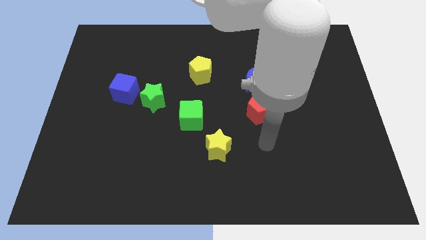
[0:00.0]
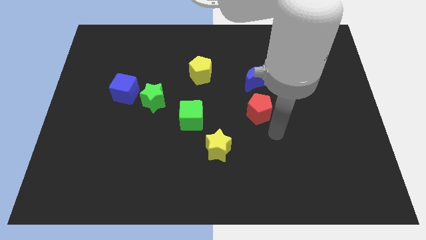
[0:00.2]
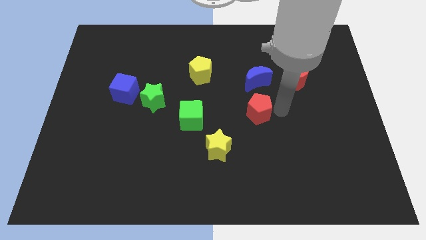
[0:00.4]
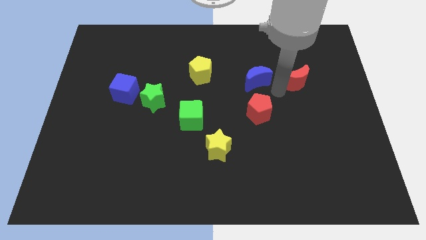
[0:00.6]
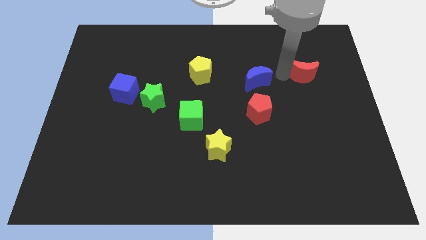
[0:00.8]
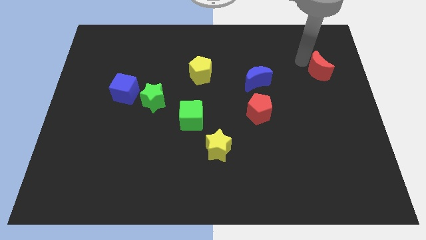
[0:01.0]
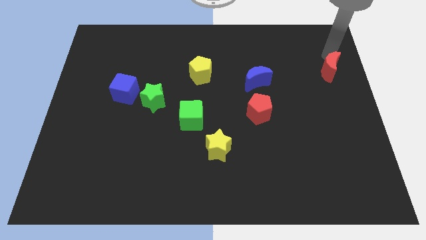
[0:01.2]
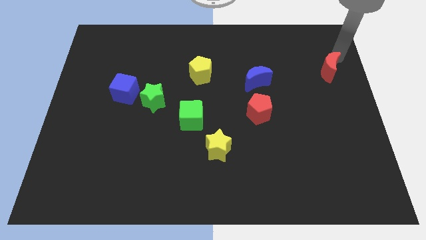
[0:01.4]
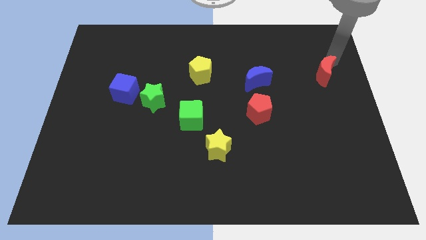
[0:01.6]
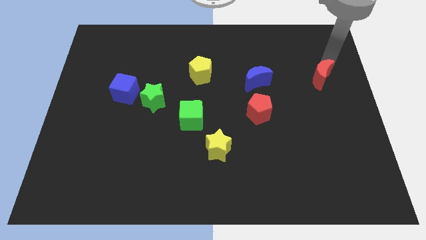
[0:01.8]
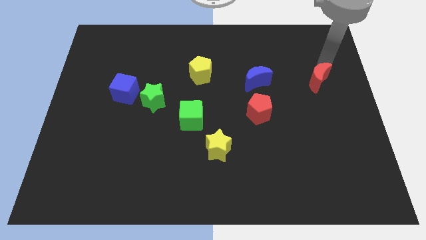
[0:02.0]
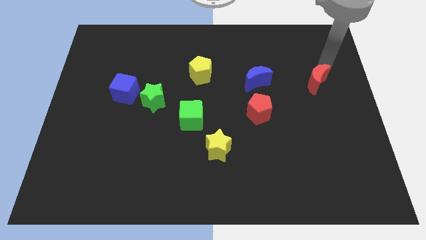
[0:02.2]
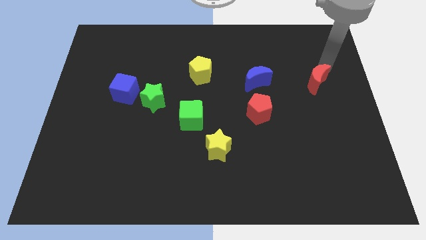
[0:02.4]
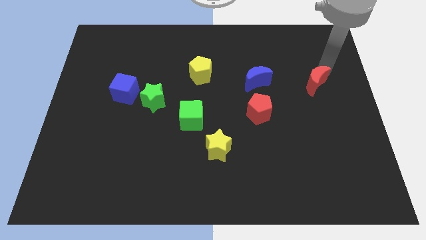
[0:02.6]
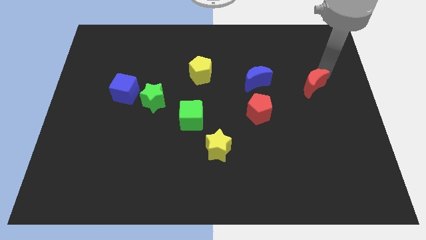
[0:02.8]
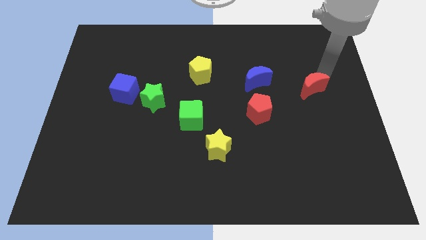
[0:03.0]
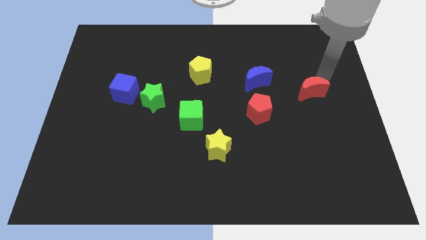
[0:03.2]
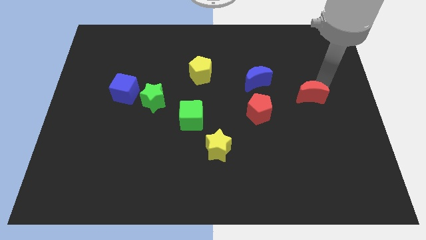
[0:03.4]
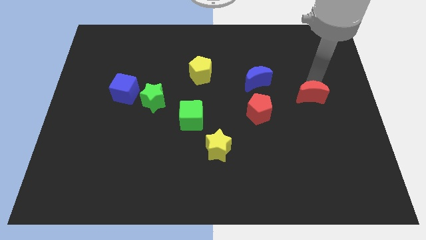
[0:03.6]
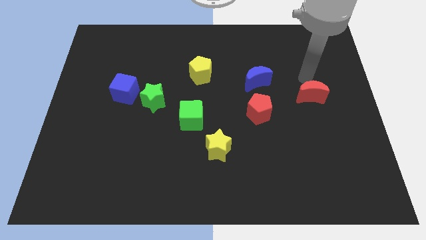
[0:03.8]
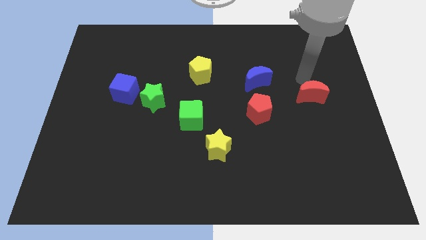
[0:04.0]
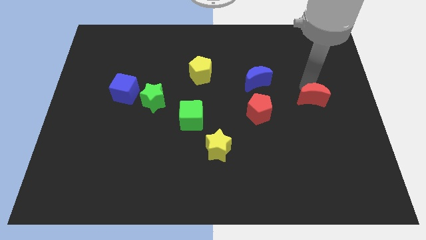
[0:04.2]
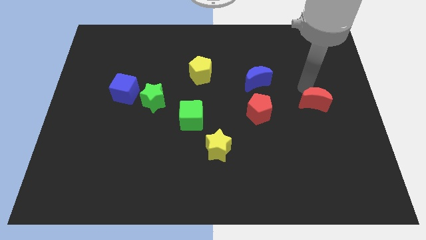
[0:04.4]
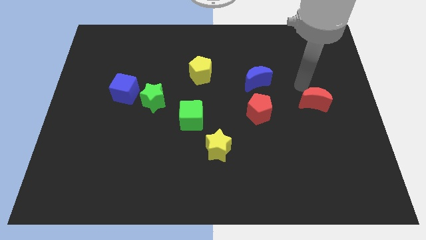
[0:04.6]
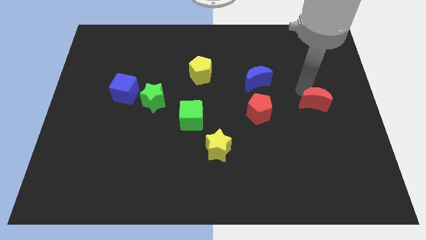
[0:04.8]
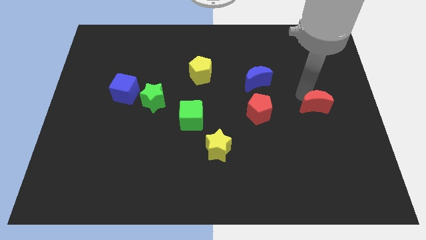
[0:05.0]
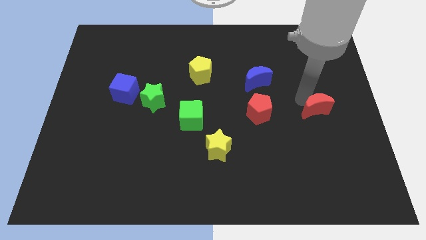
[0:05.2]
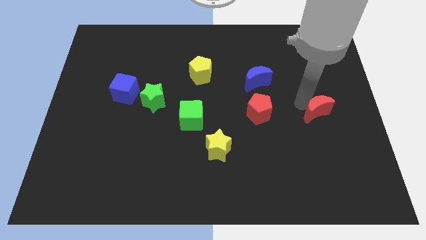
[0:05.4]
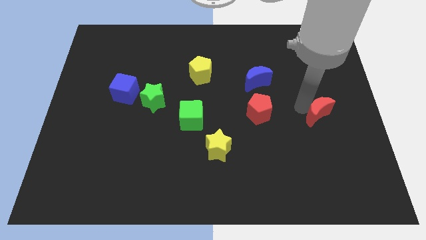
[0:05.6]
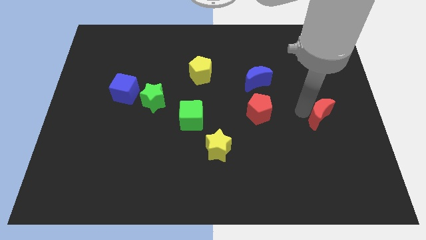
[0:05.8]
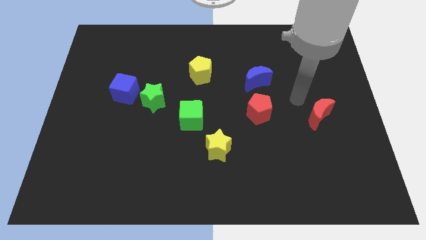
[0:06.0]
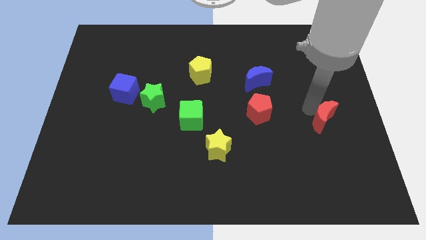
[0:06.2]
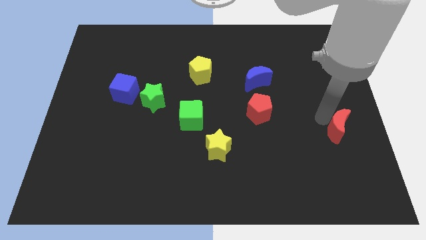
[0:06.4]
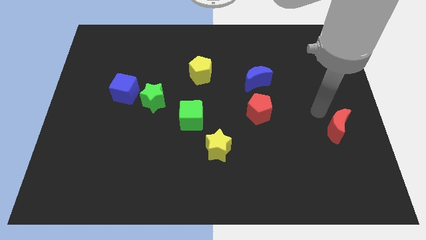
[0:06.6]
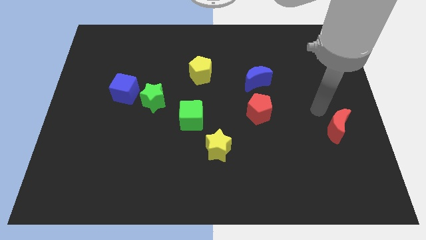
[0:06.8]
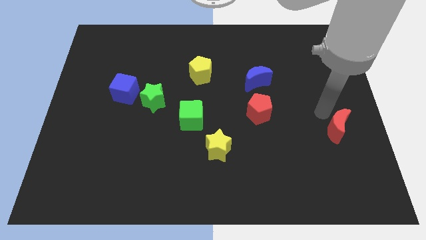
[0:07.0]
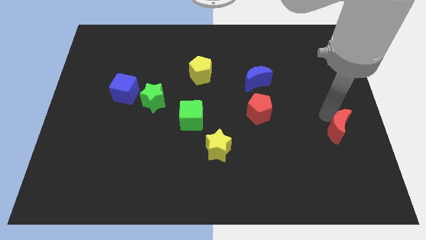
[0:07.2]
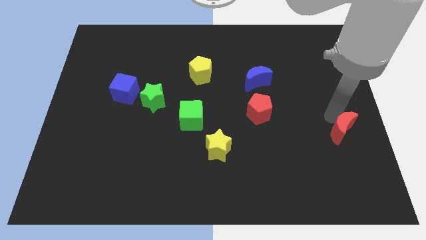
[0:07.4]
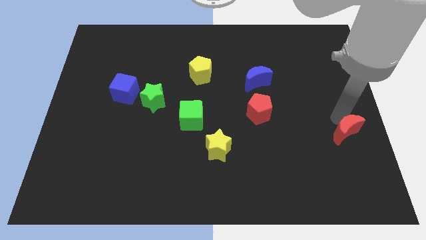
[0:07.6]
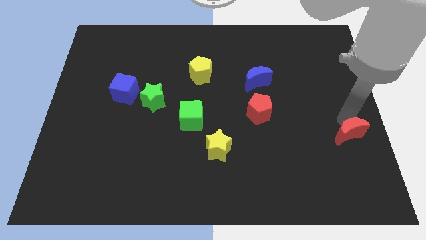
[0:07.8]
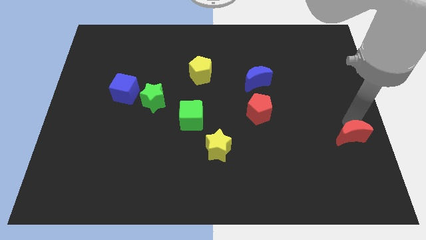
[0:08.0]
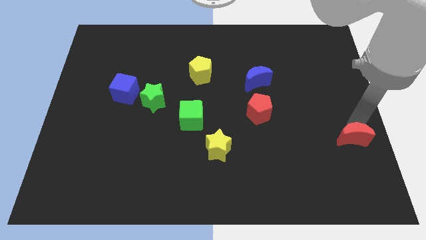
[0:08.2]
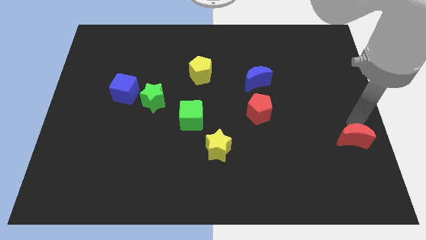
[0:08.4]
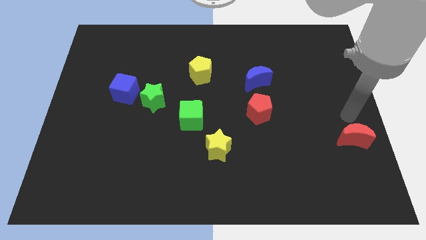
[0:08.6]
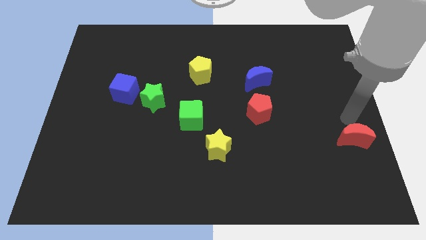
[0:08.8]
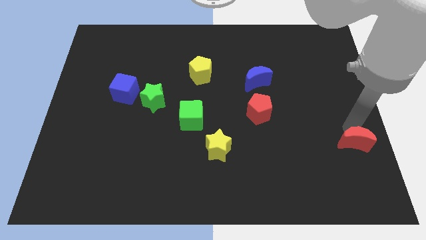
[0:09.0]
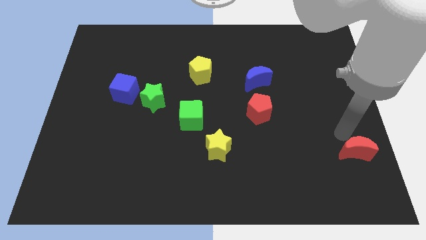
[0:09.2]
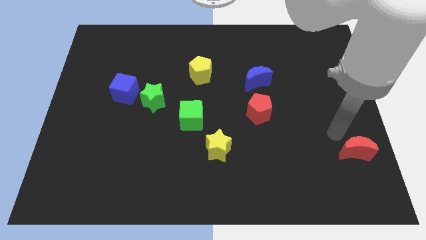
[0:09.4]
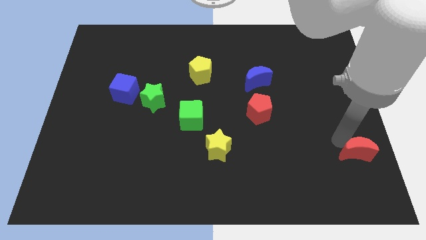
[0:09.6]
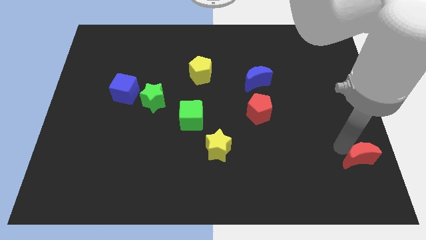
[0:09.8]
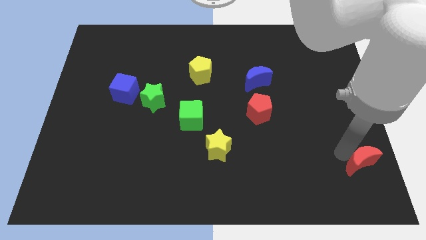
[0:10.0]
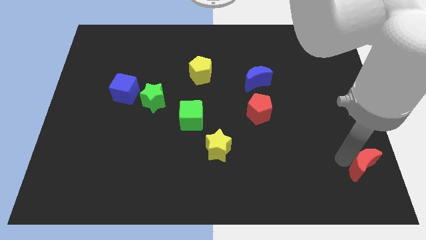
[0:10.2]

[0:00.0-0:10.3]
push the red moon to the lower right corner

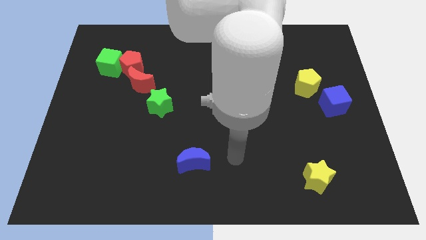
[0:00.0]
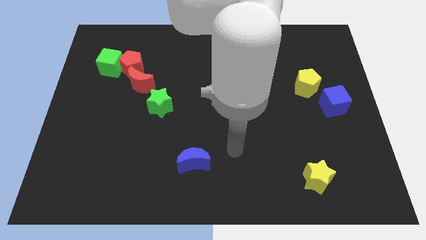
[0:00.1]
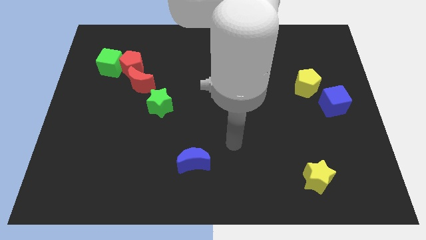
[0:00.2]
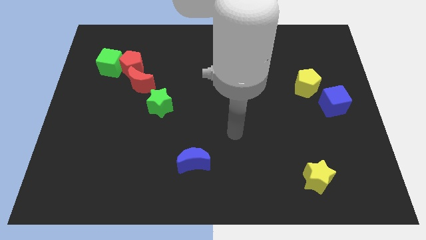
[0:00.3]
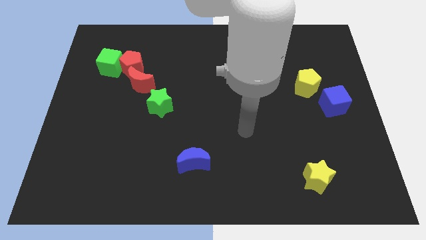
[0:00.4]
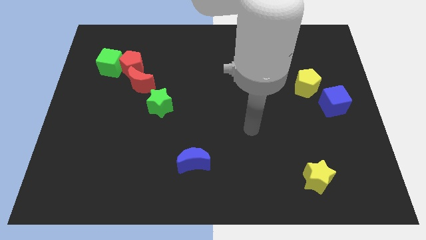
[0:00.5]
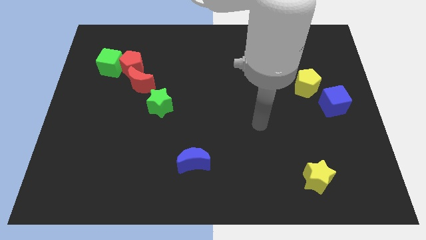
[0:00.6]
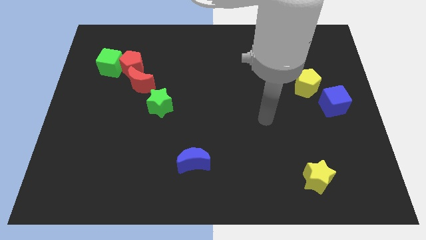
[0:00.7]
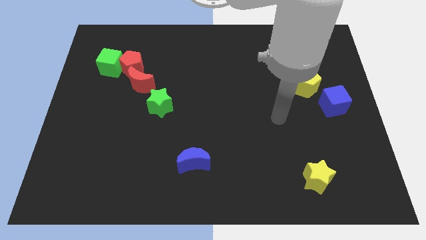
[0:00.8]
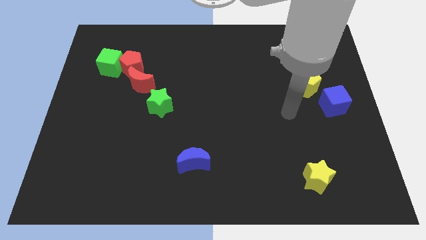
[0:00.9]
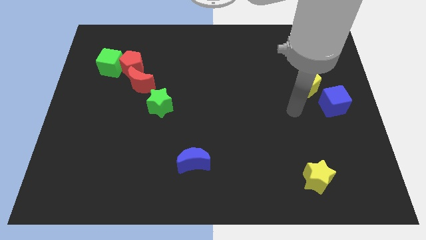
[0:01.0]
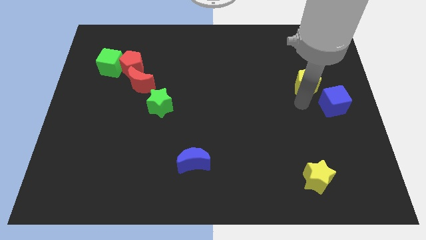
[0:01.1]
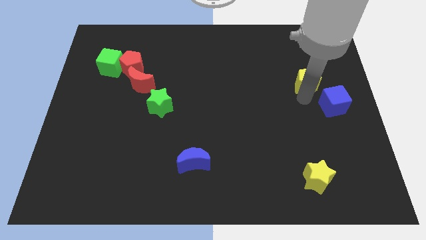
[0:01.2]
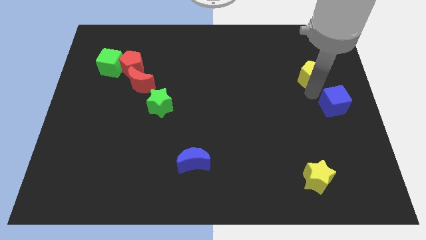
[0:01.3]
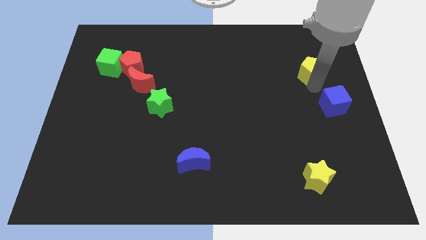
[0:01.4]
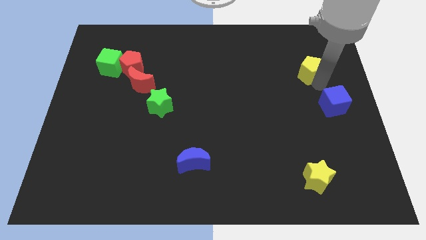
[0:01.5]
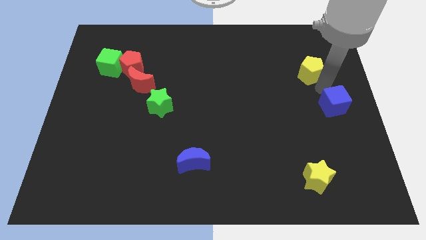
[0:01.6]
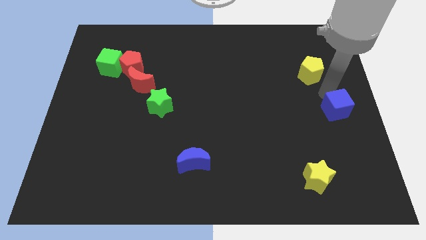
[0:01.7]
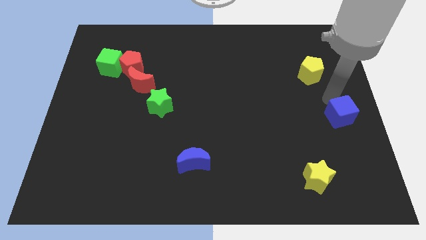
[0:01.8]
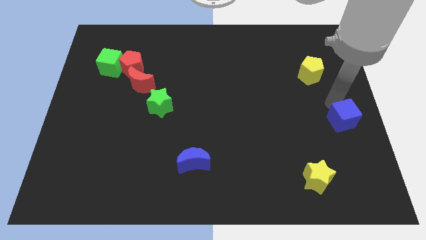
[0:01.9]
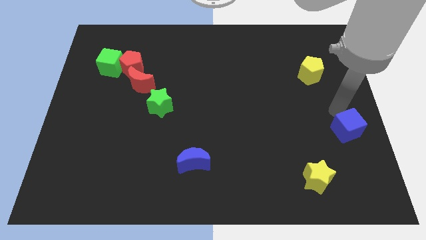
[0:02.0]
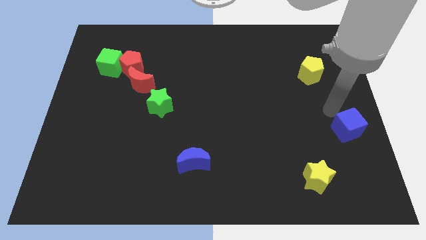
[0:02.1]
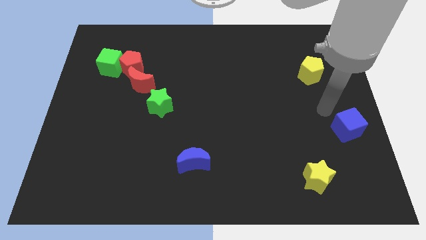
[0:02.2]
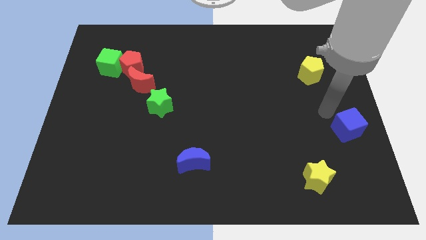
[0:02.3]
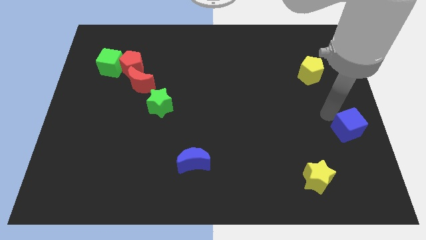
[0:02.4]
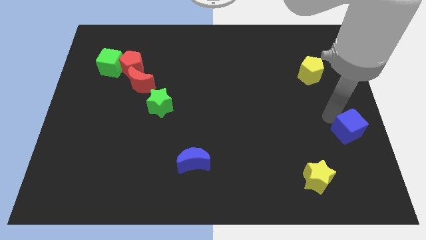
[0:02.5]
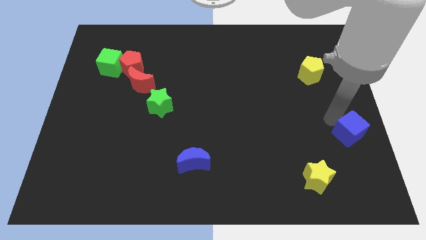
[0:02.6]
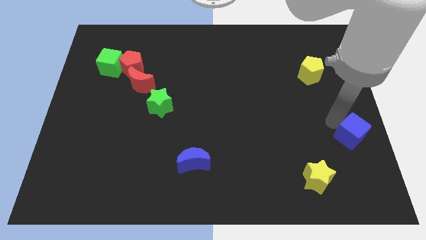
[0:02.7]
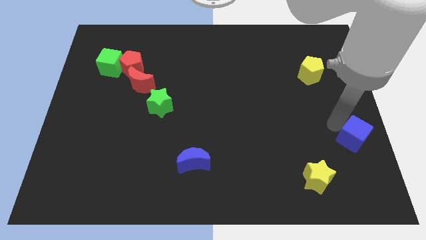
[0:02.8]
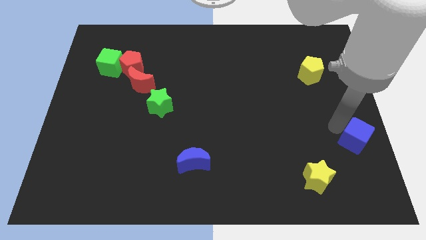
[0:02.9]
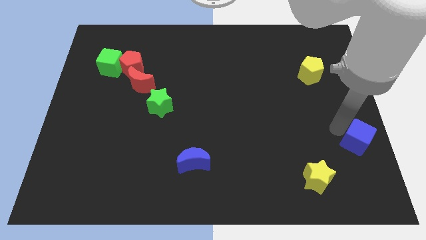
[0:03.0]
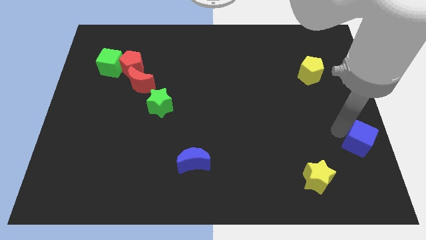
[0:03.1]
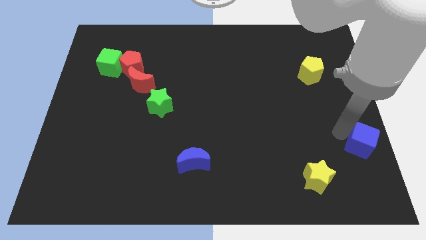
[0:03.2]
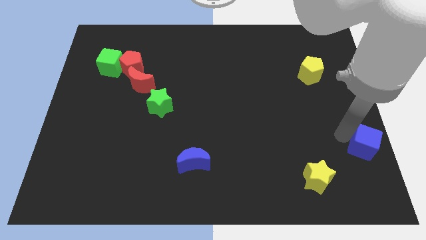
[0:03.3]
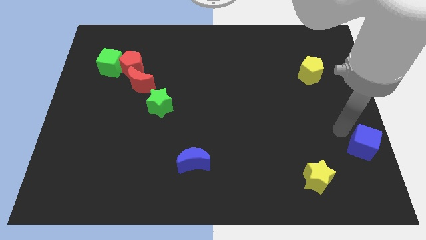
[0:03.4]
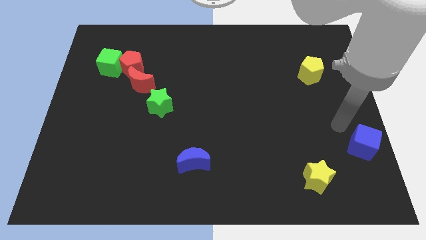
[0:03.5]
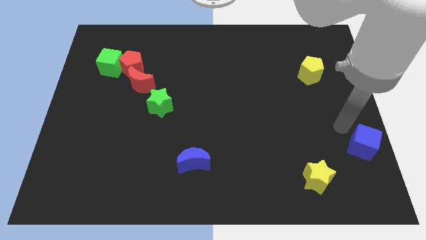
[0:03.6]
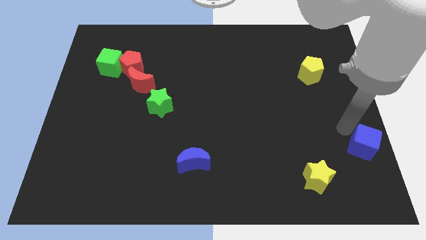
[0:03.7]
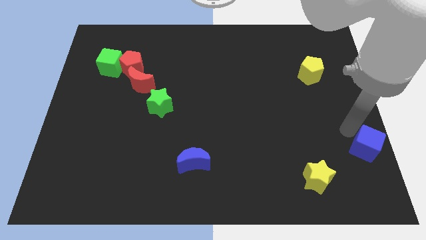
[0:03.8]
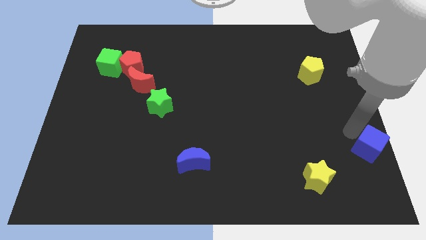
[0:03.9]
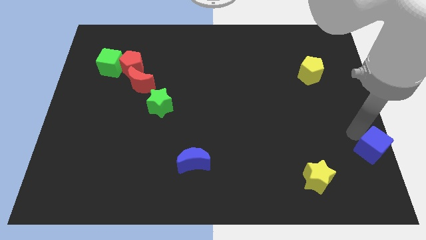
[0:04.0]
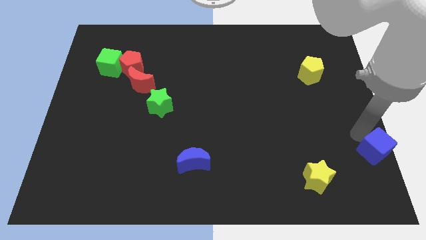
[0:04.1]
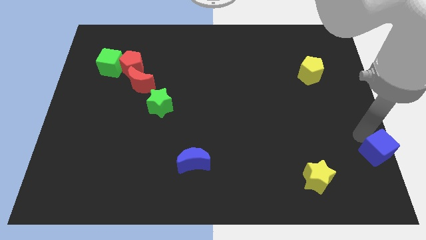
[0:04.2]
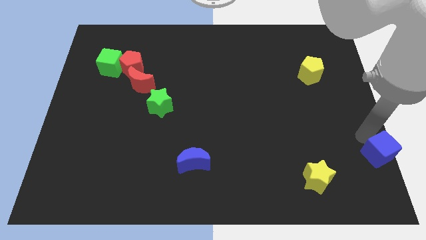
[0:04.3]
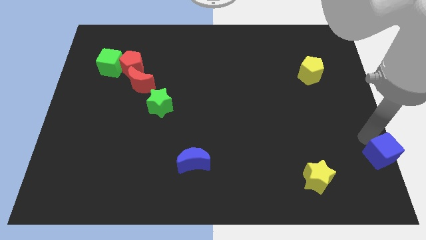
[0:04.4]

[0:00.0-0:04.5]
put the blue cube to the lower right corner
